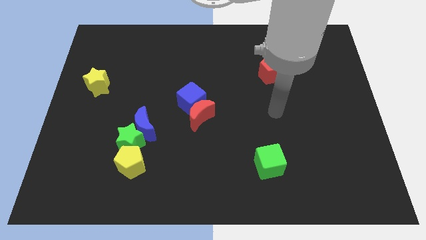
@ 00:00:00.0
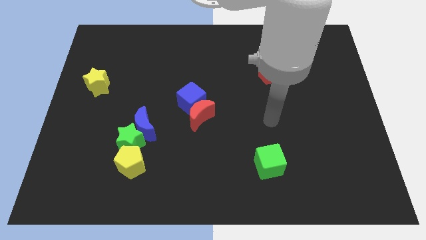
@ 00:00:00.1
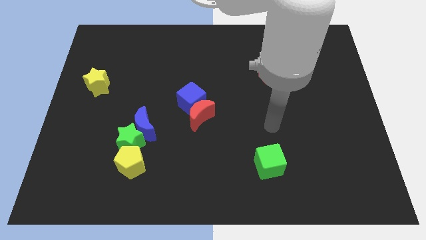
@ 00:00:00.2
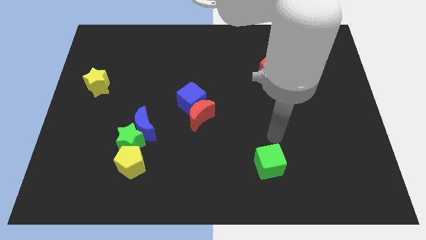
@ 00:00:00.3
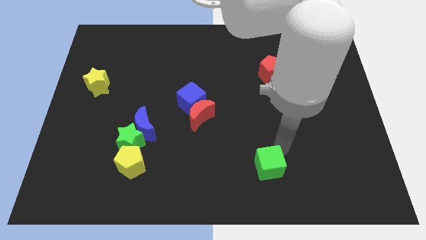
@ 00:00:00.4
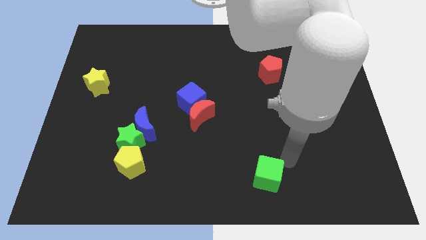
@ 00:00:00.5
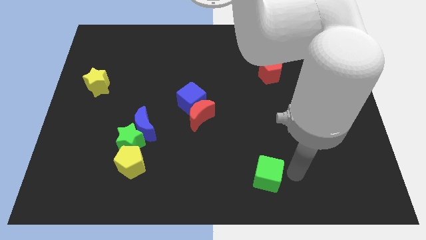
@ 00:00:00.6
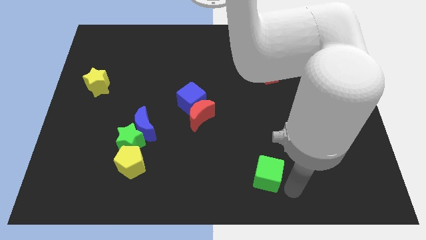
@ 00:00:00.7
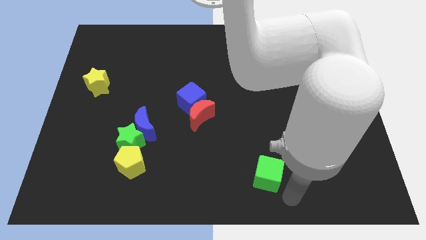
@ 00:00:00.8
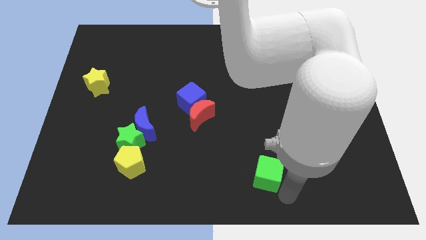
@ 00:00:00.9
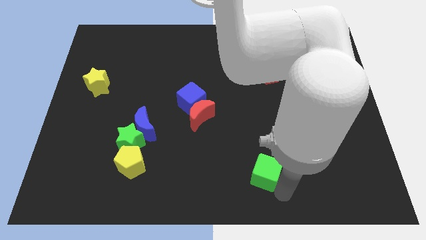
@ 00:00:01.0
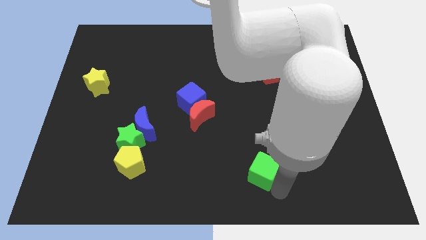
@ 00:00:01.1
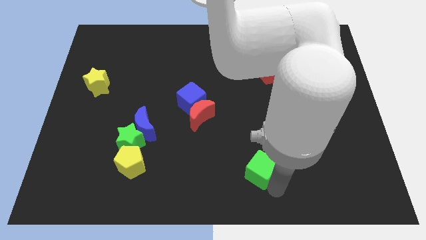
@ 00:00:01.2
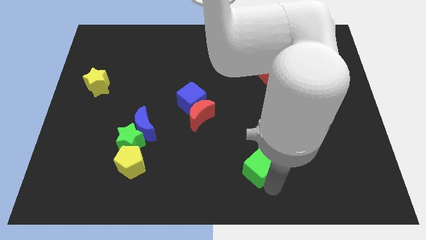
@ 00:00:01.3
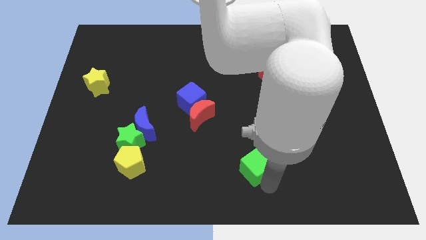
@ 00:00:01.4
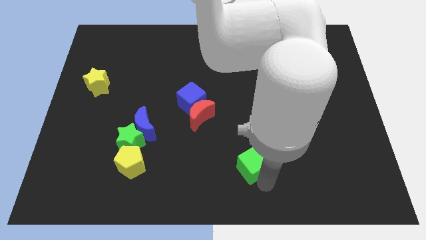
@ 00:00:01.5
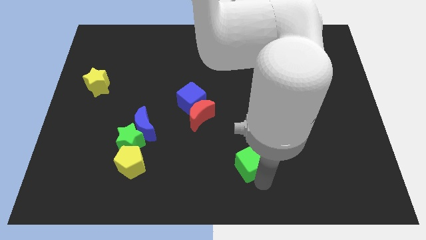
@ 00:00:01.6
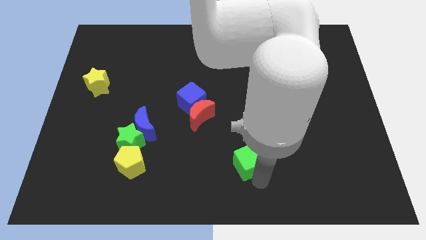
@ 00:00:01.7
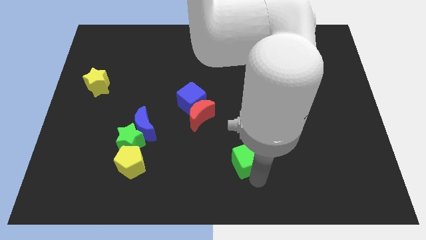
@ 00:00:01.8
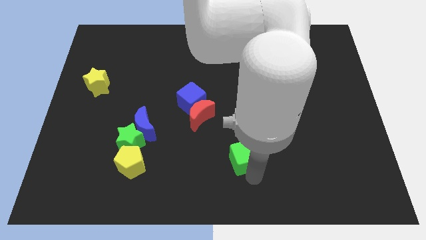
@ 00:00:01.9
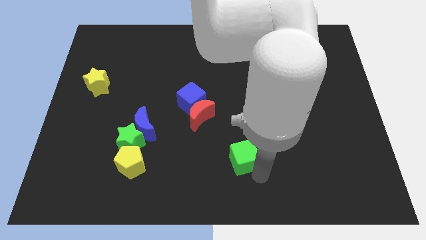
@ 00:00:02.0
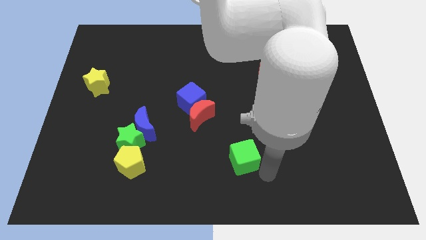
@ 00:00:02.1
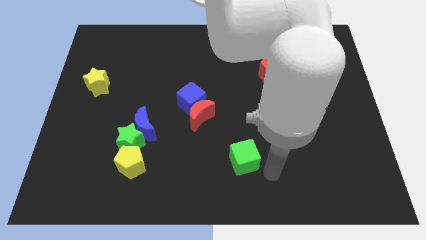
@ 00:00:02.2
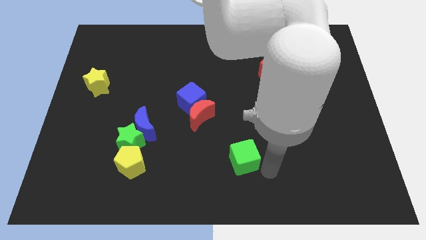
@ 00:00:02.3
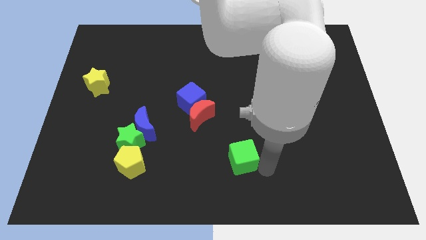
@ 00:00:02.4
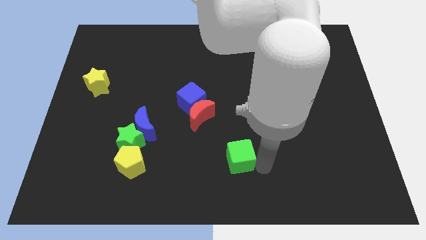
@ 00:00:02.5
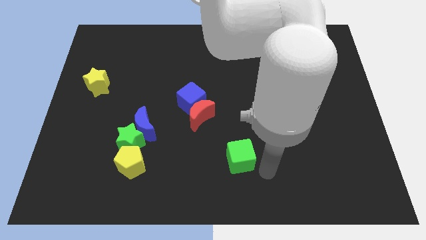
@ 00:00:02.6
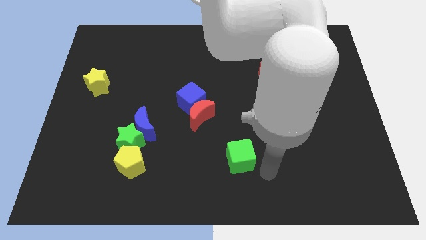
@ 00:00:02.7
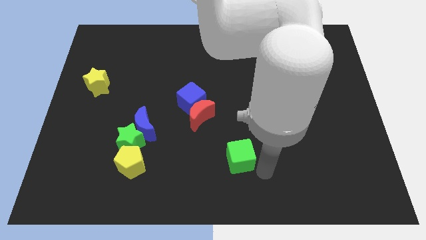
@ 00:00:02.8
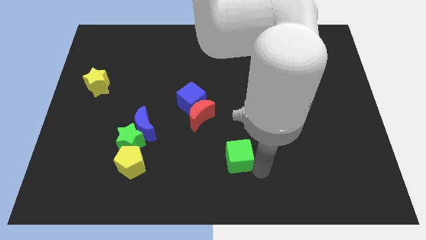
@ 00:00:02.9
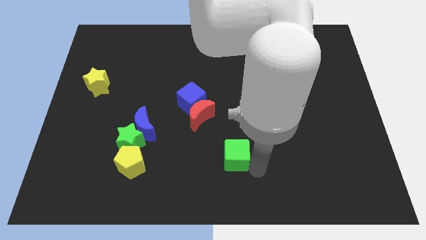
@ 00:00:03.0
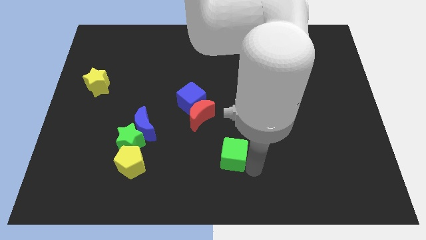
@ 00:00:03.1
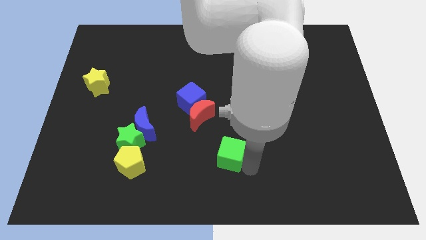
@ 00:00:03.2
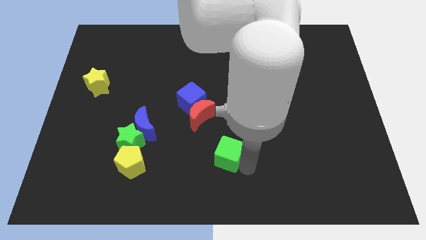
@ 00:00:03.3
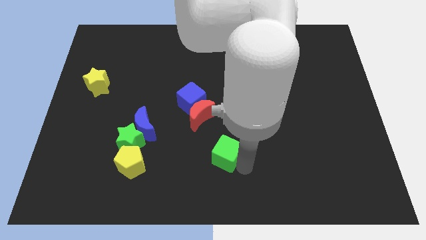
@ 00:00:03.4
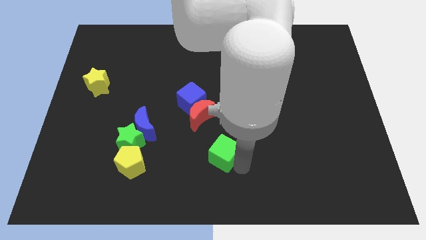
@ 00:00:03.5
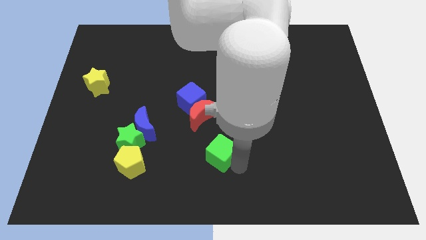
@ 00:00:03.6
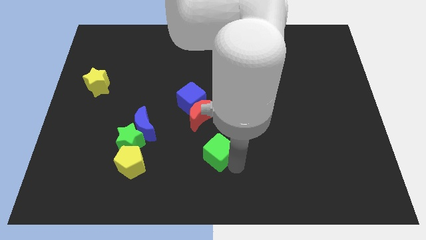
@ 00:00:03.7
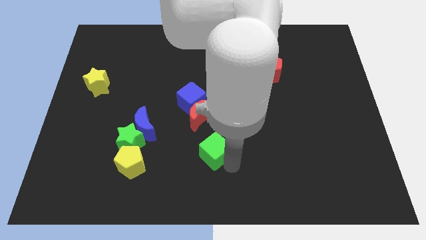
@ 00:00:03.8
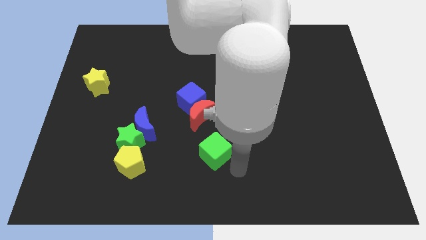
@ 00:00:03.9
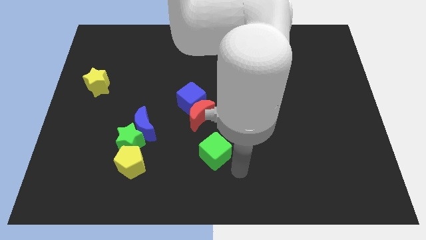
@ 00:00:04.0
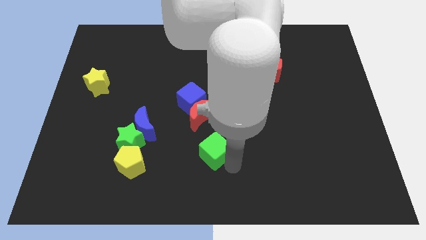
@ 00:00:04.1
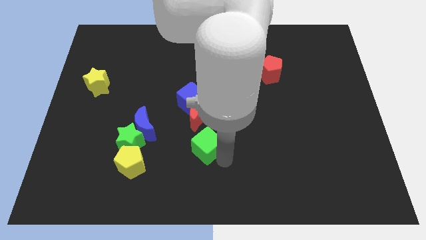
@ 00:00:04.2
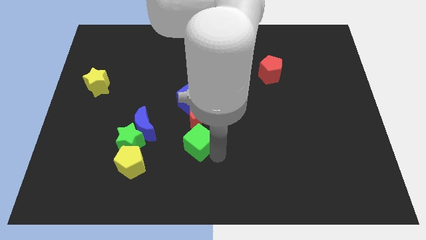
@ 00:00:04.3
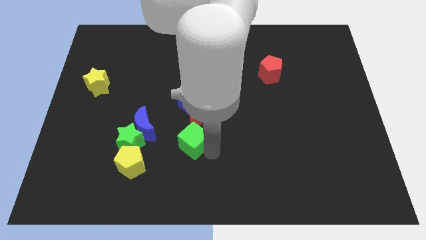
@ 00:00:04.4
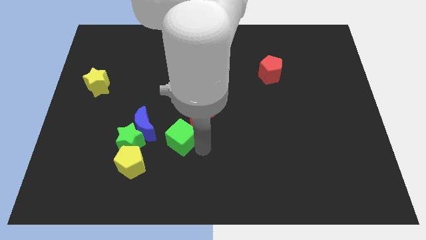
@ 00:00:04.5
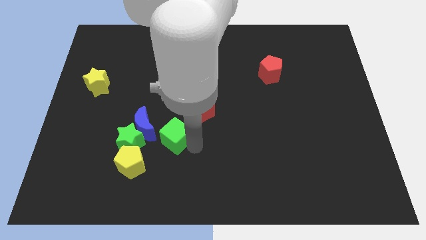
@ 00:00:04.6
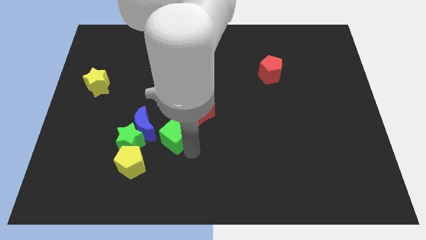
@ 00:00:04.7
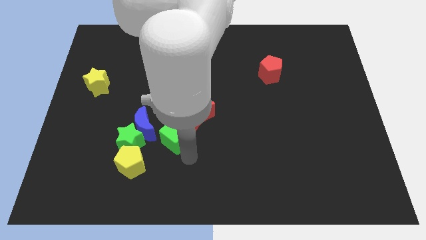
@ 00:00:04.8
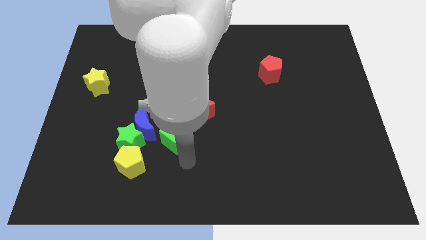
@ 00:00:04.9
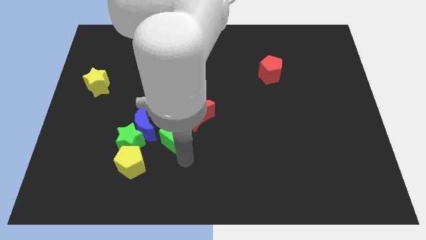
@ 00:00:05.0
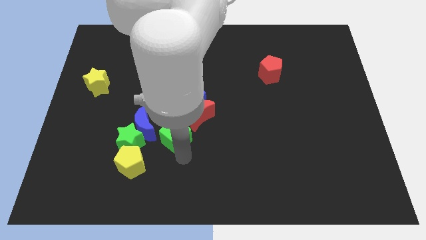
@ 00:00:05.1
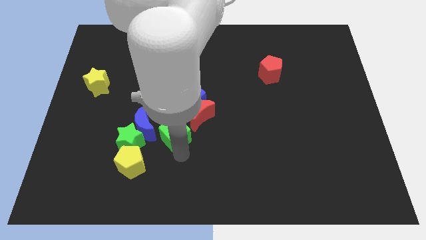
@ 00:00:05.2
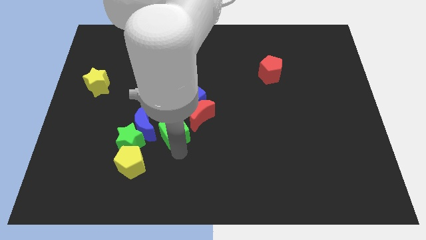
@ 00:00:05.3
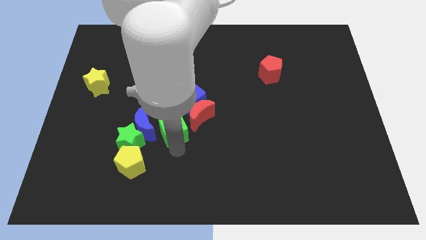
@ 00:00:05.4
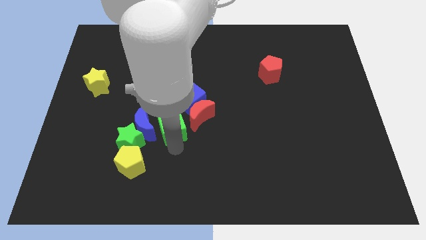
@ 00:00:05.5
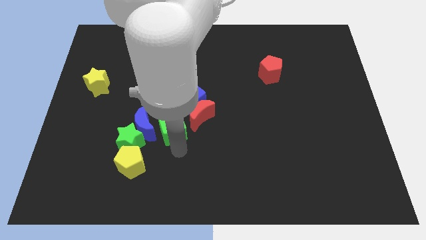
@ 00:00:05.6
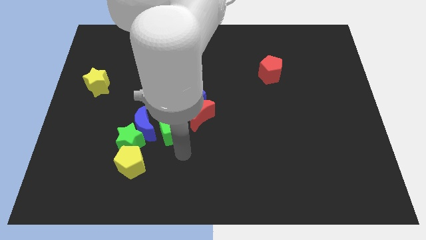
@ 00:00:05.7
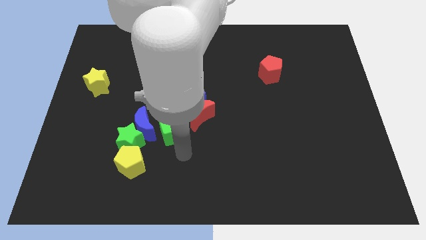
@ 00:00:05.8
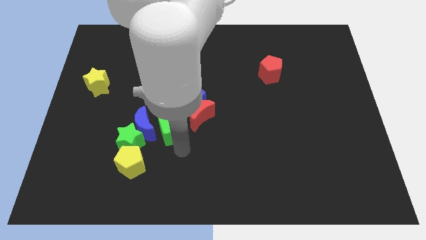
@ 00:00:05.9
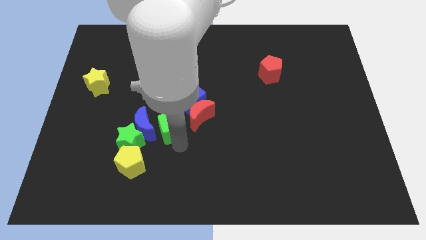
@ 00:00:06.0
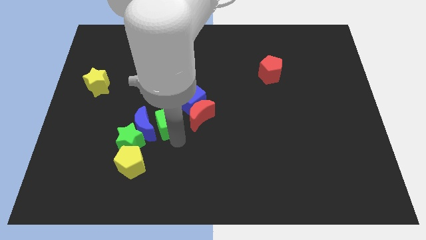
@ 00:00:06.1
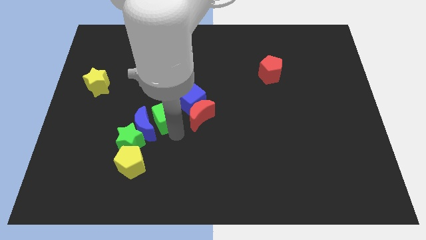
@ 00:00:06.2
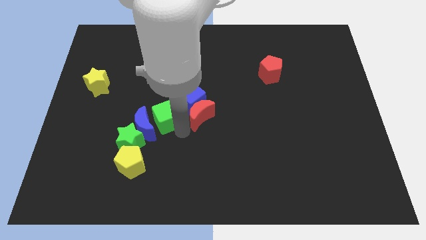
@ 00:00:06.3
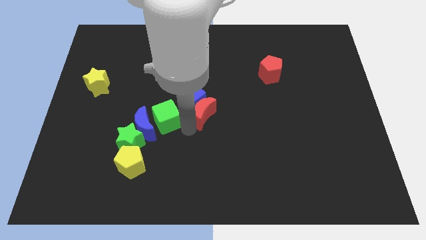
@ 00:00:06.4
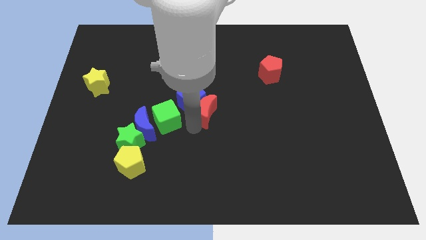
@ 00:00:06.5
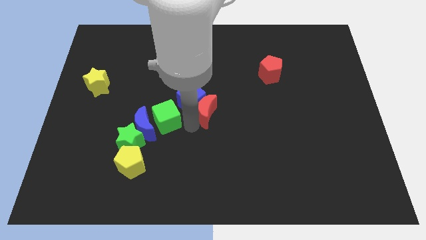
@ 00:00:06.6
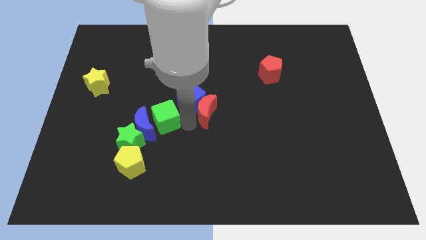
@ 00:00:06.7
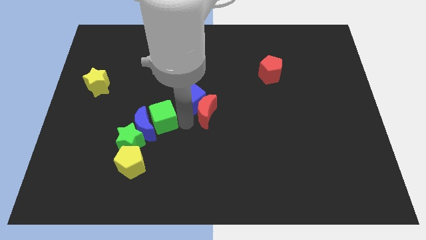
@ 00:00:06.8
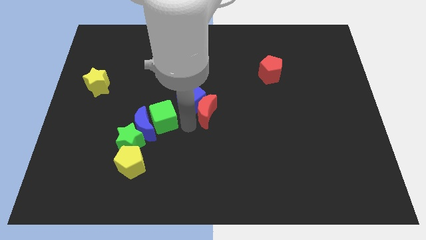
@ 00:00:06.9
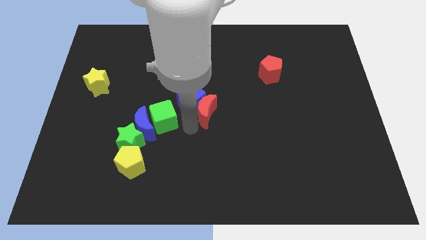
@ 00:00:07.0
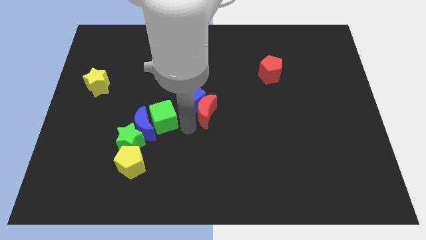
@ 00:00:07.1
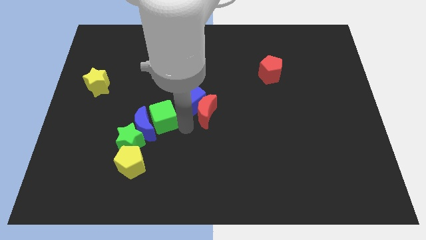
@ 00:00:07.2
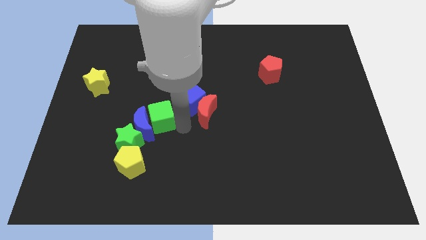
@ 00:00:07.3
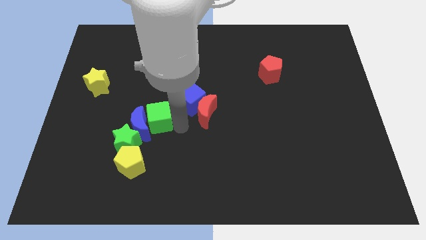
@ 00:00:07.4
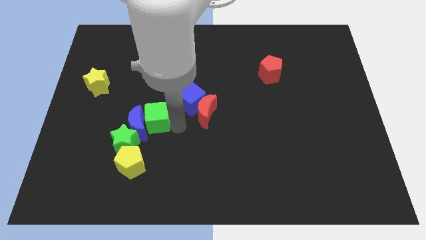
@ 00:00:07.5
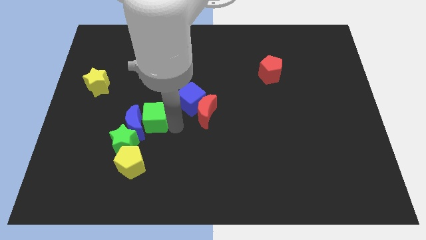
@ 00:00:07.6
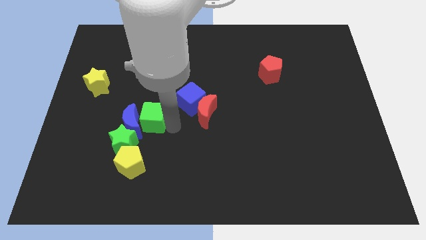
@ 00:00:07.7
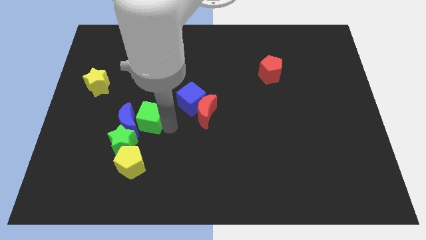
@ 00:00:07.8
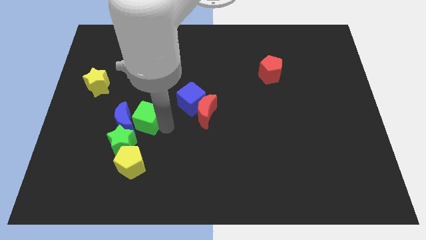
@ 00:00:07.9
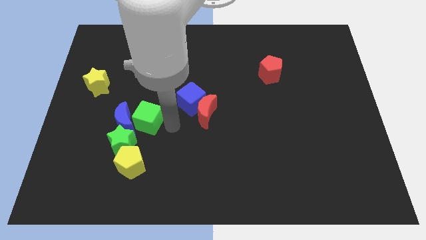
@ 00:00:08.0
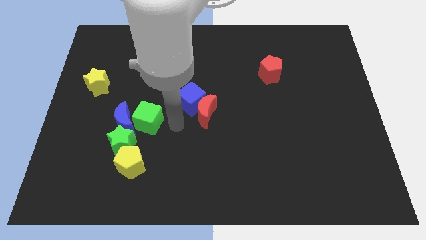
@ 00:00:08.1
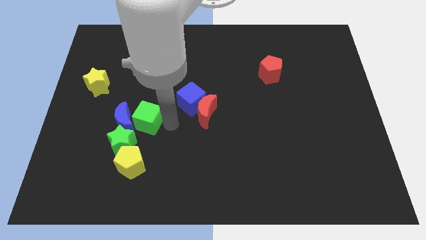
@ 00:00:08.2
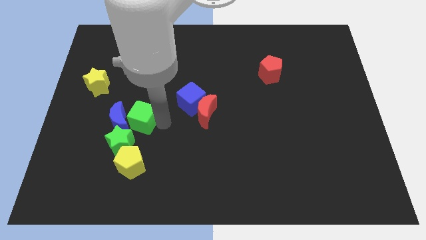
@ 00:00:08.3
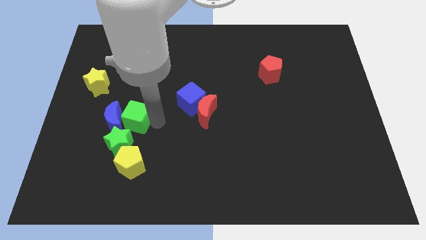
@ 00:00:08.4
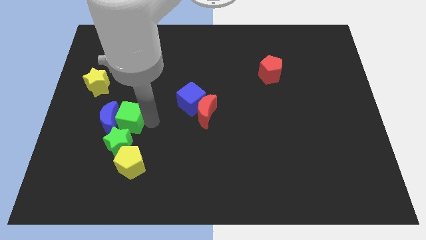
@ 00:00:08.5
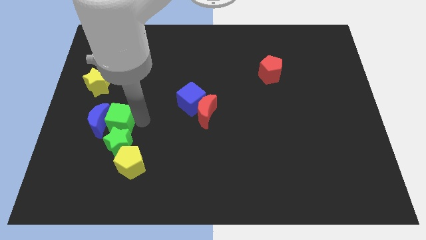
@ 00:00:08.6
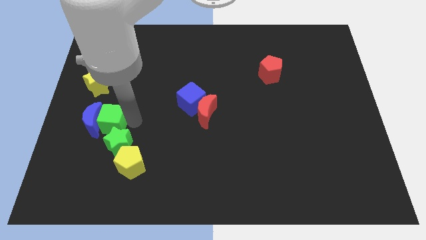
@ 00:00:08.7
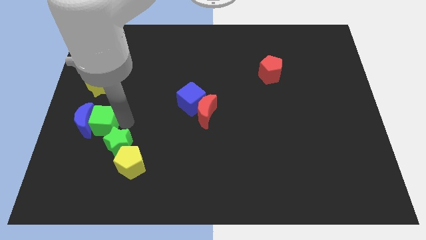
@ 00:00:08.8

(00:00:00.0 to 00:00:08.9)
put the green cube to the bottom of the yellow star
